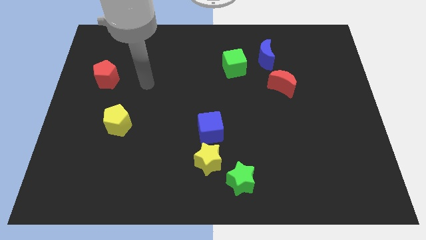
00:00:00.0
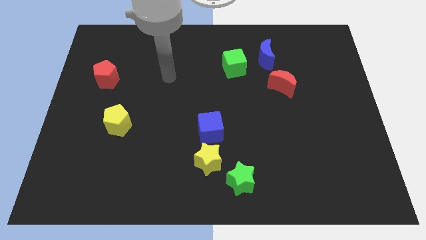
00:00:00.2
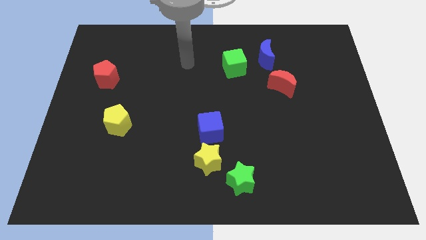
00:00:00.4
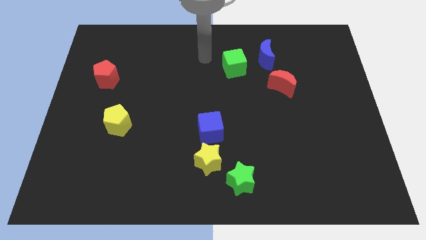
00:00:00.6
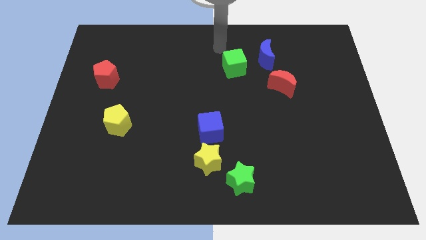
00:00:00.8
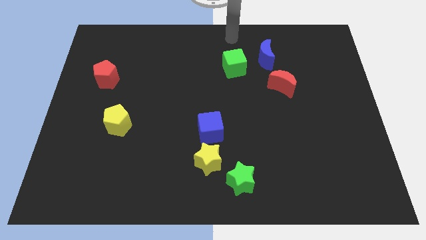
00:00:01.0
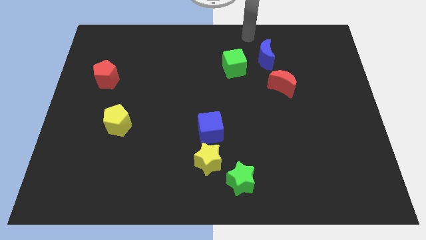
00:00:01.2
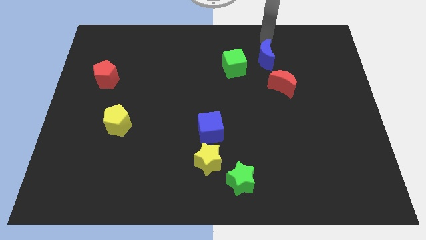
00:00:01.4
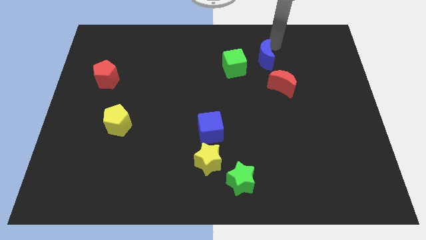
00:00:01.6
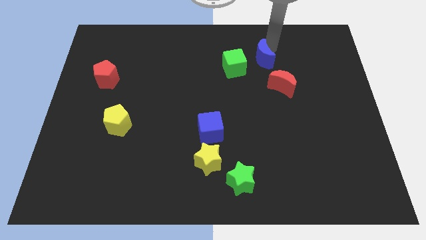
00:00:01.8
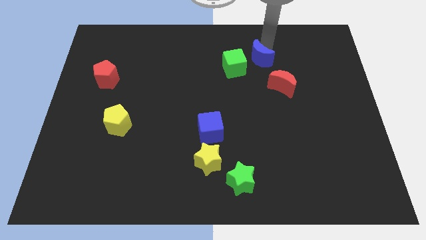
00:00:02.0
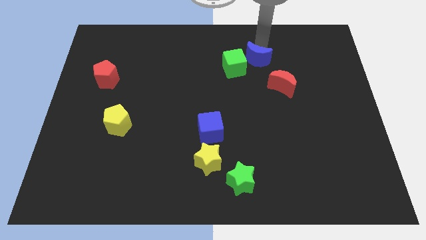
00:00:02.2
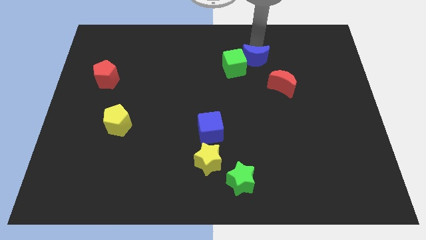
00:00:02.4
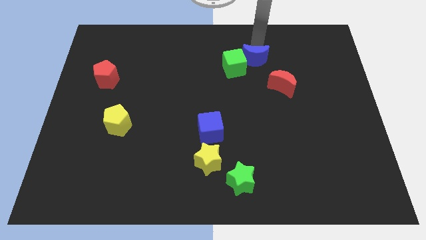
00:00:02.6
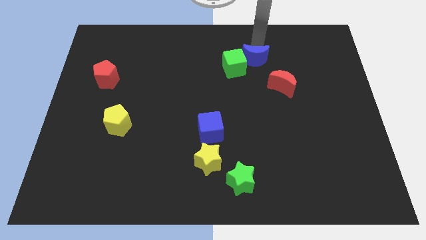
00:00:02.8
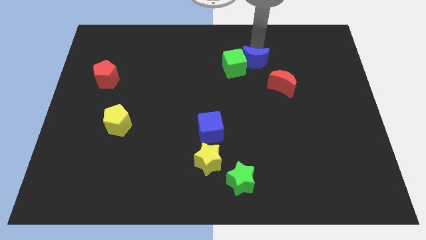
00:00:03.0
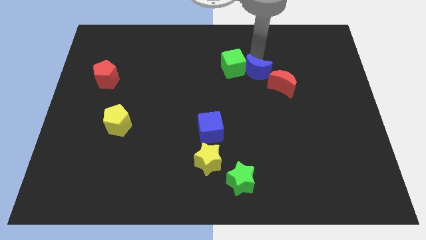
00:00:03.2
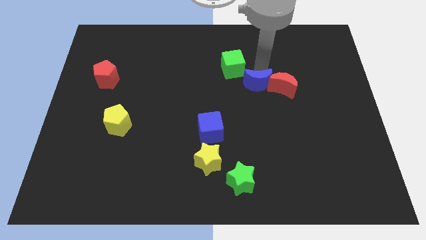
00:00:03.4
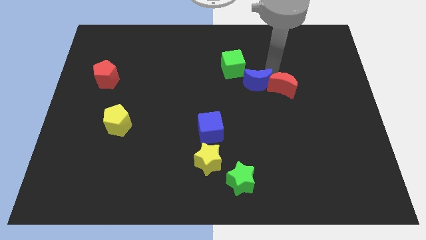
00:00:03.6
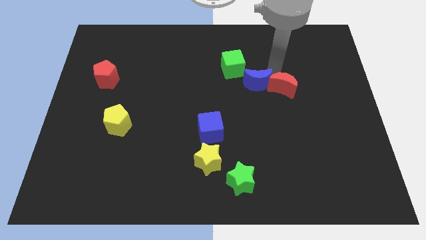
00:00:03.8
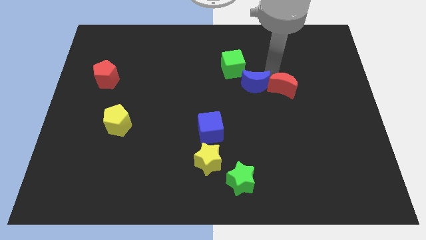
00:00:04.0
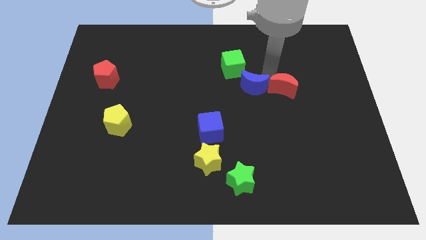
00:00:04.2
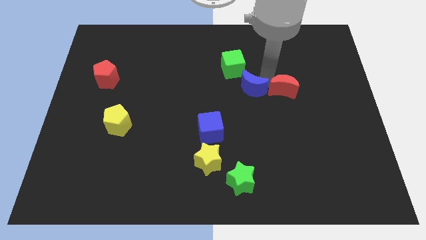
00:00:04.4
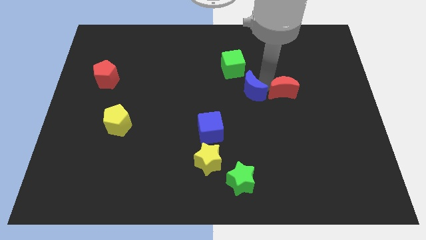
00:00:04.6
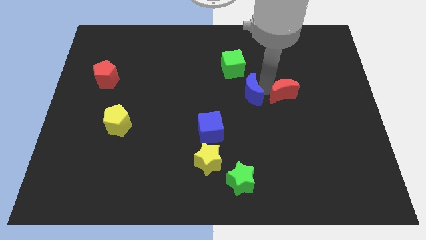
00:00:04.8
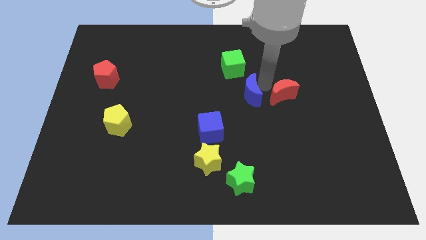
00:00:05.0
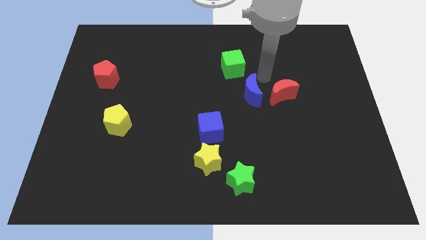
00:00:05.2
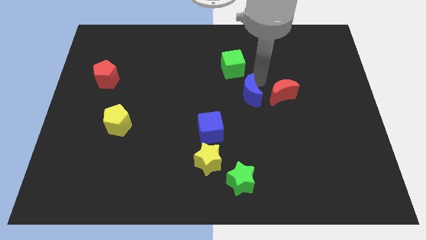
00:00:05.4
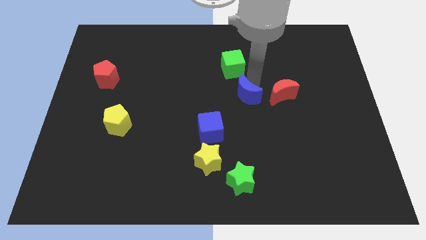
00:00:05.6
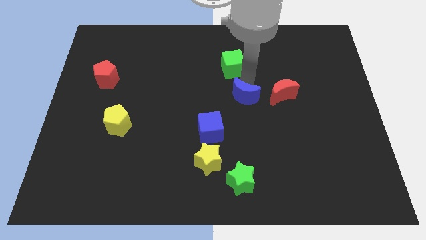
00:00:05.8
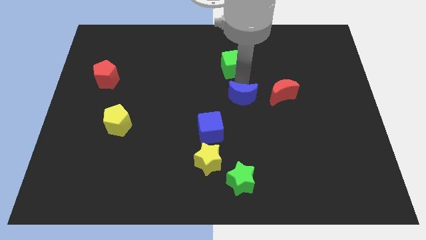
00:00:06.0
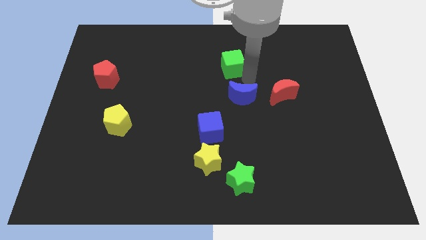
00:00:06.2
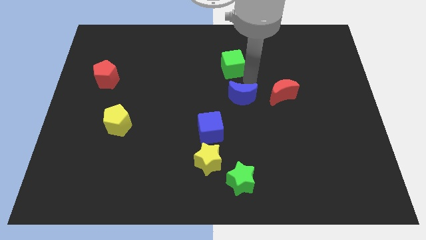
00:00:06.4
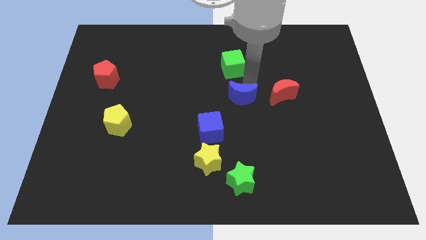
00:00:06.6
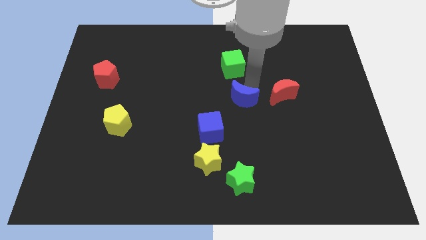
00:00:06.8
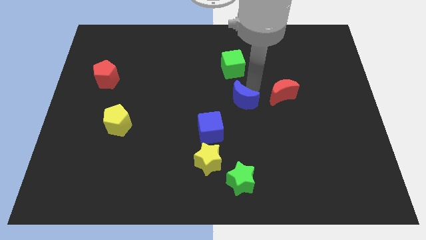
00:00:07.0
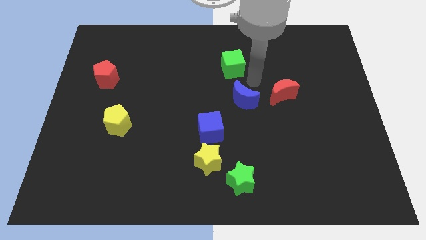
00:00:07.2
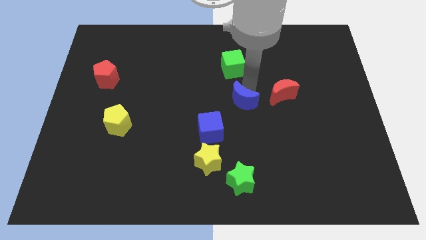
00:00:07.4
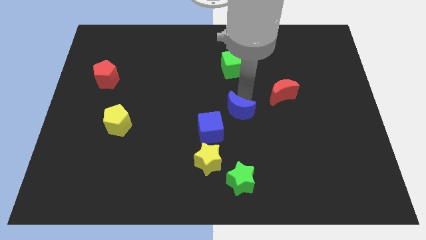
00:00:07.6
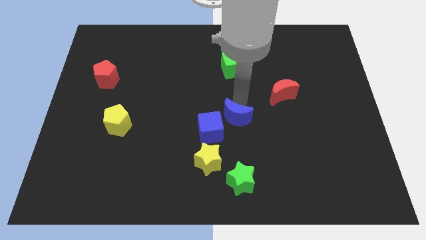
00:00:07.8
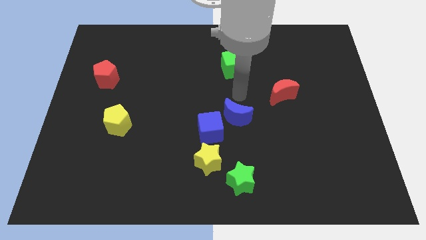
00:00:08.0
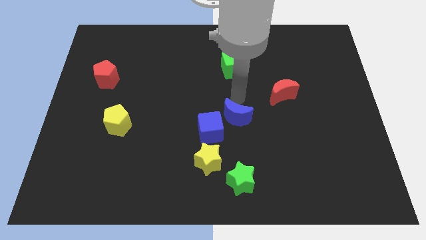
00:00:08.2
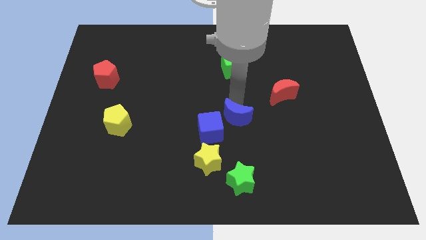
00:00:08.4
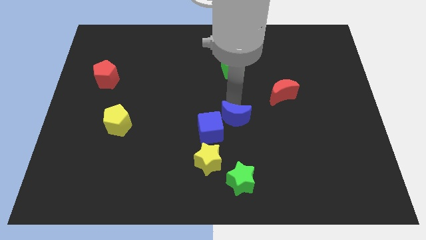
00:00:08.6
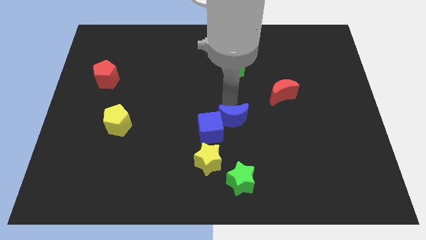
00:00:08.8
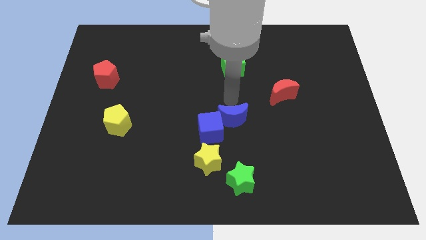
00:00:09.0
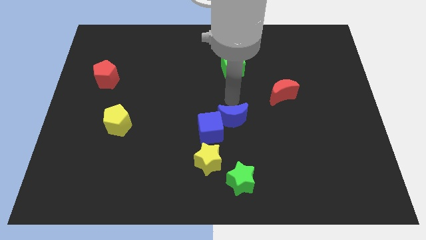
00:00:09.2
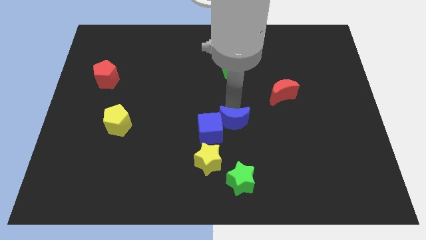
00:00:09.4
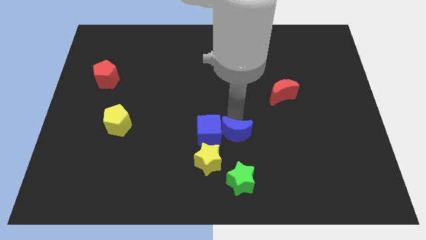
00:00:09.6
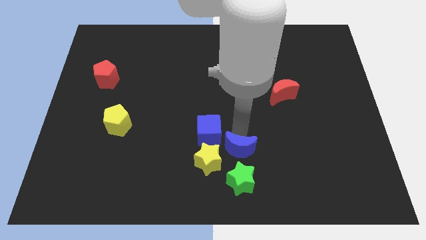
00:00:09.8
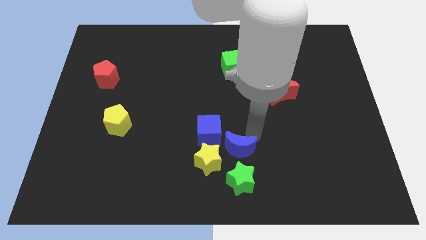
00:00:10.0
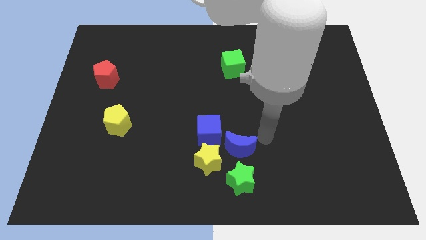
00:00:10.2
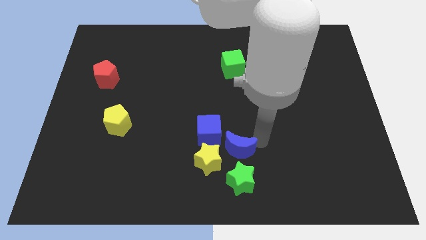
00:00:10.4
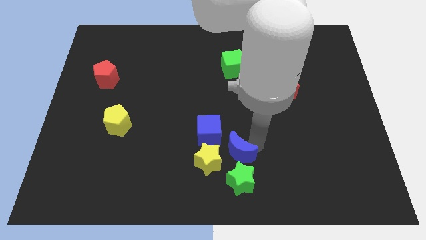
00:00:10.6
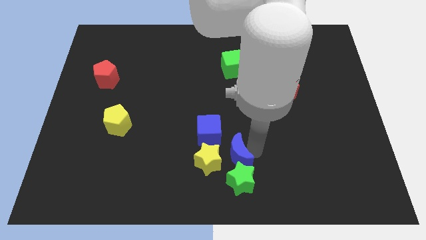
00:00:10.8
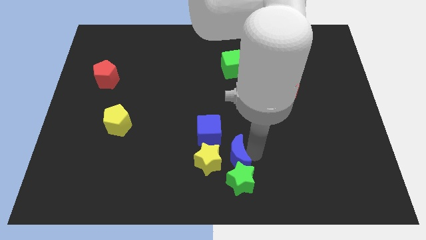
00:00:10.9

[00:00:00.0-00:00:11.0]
move the blue moon towards the yellow star

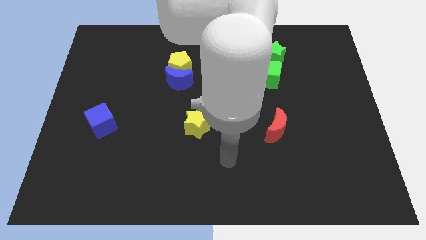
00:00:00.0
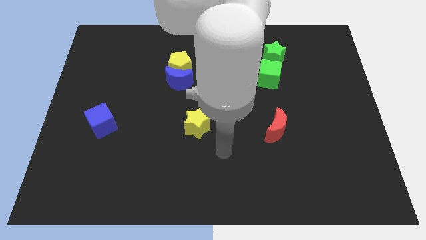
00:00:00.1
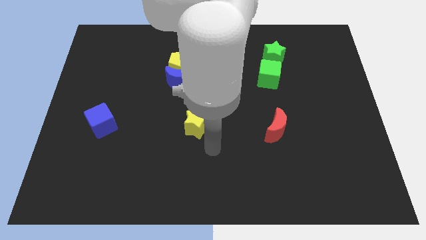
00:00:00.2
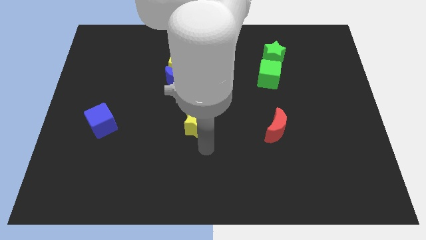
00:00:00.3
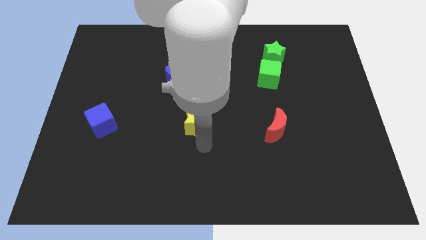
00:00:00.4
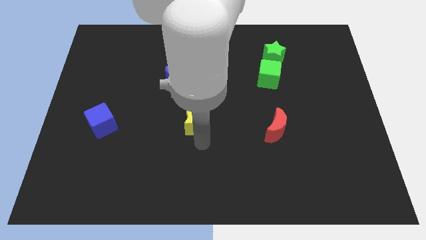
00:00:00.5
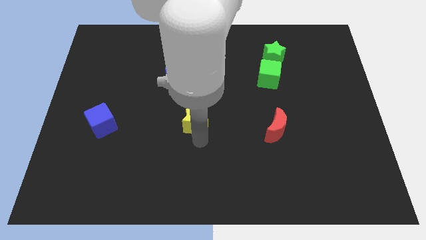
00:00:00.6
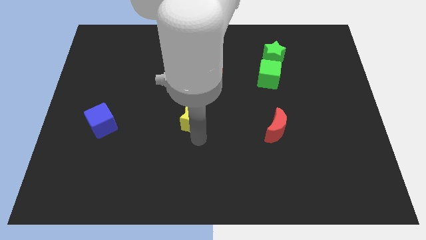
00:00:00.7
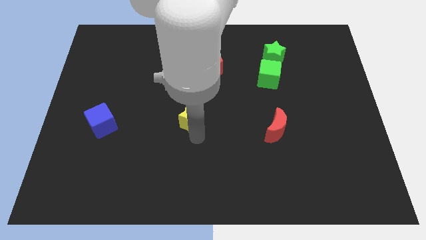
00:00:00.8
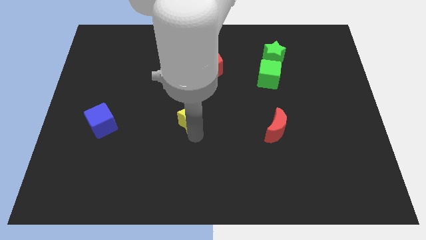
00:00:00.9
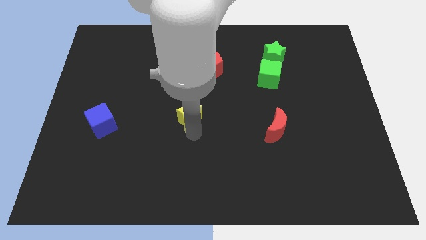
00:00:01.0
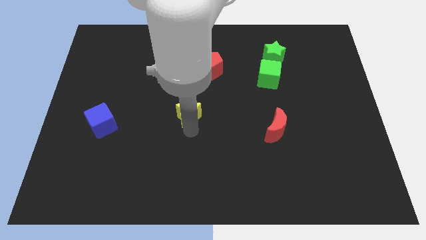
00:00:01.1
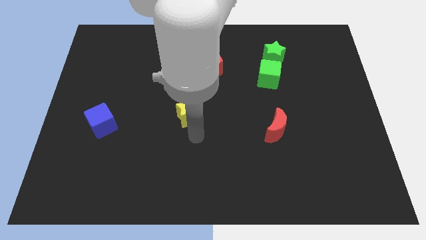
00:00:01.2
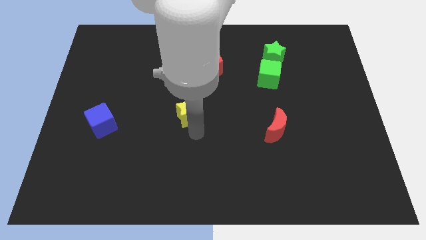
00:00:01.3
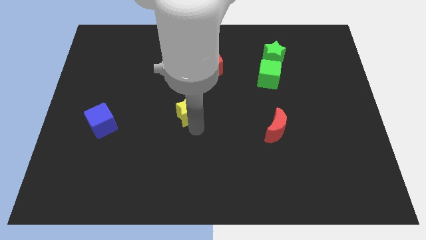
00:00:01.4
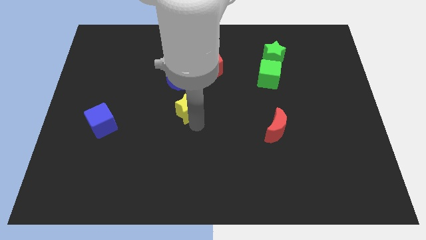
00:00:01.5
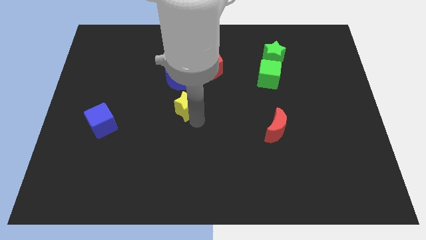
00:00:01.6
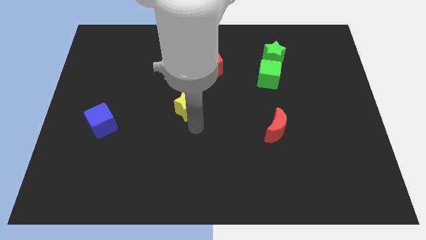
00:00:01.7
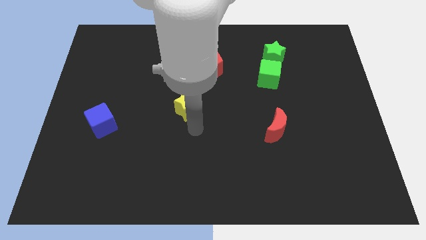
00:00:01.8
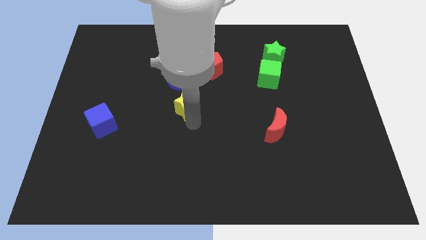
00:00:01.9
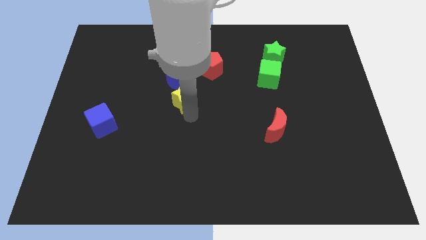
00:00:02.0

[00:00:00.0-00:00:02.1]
put the yellow star towards the blue moon
